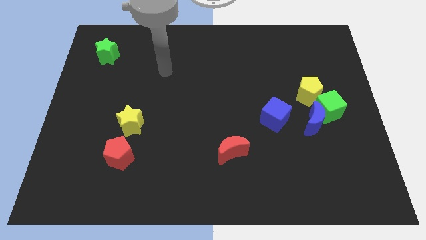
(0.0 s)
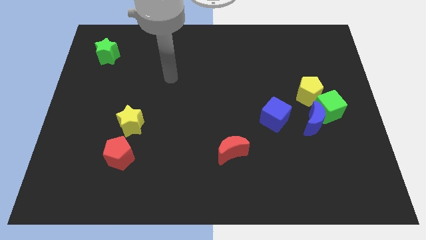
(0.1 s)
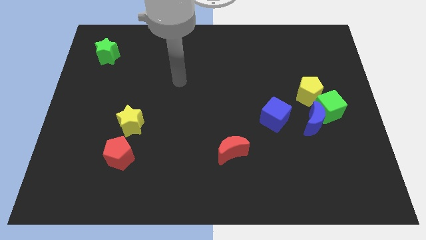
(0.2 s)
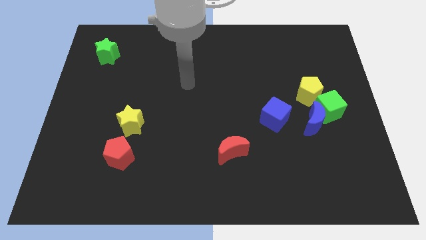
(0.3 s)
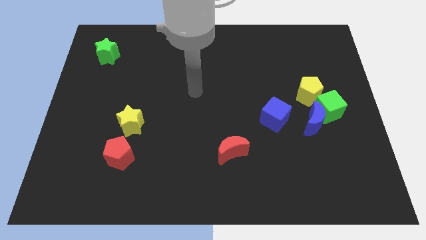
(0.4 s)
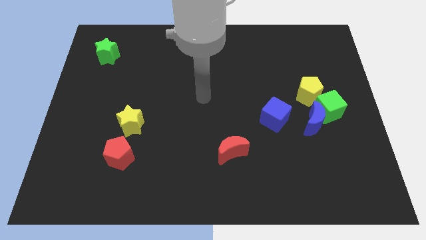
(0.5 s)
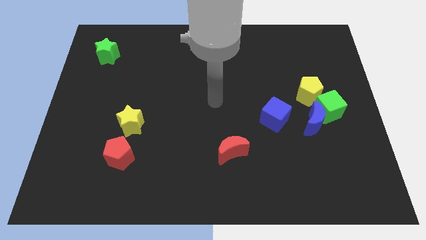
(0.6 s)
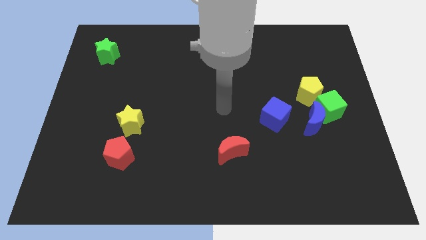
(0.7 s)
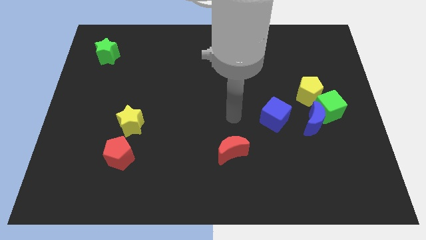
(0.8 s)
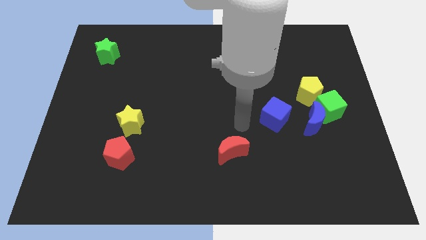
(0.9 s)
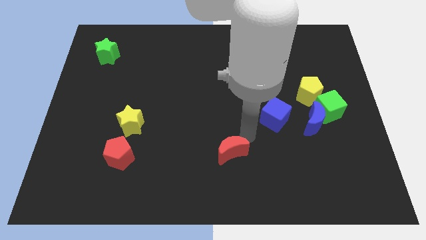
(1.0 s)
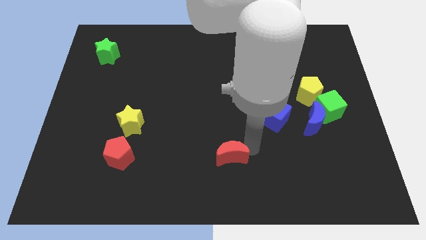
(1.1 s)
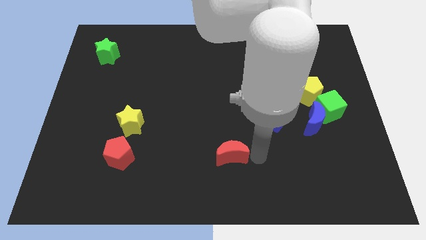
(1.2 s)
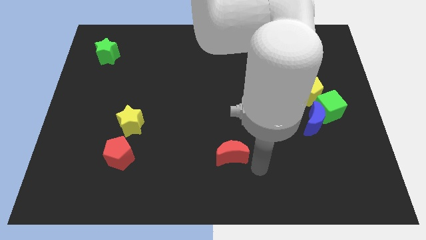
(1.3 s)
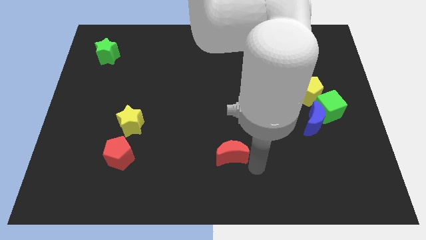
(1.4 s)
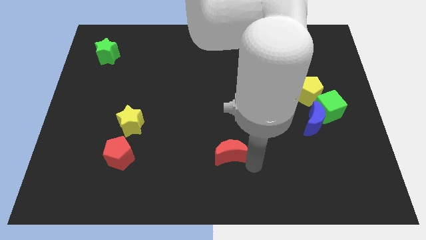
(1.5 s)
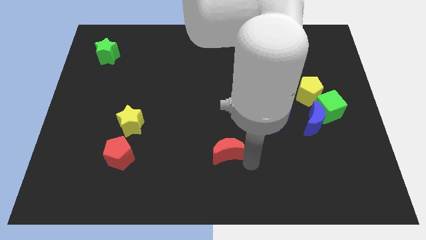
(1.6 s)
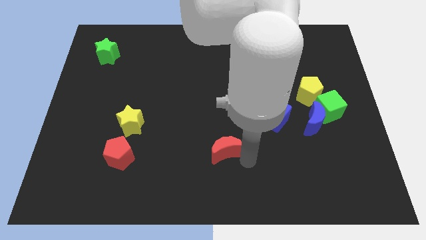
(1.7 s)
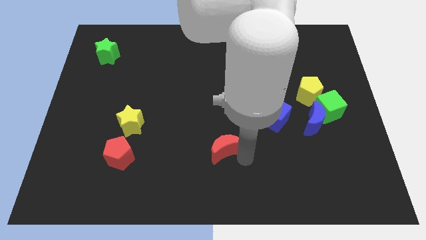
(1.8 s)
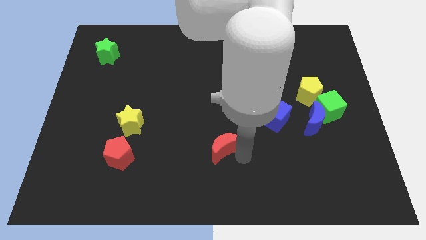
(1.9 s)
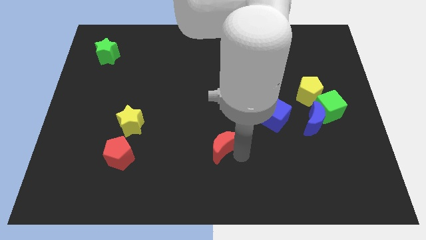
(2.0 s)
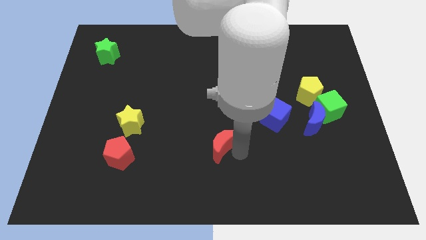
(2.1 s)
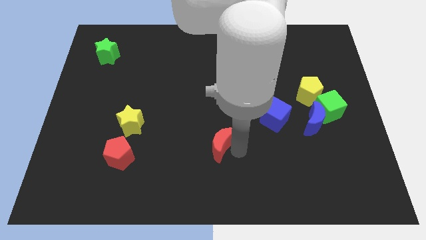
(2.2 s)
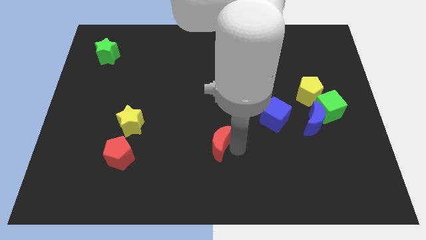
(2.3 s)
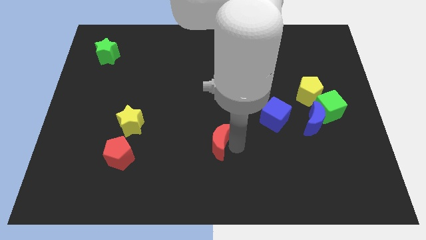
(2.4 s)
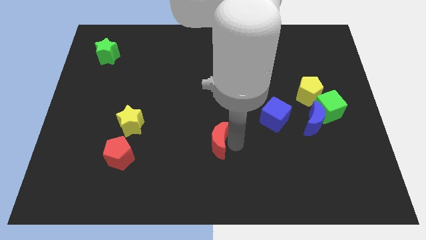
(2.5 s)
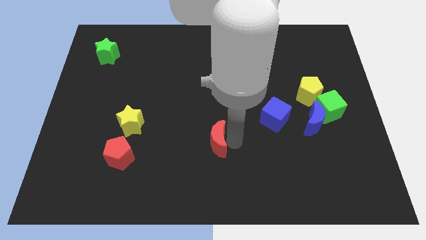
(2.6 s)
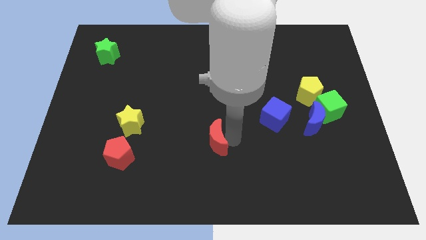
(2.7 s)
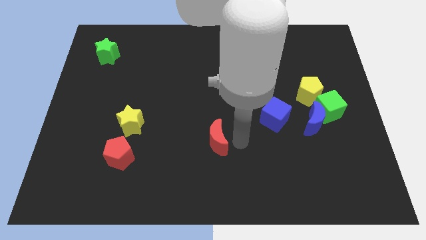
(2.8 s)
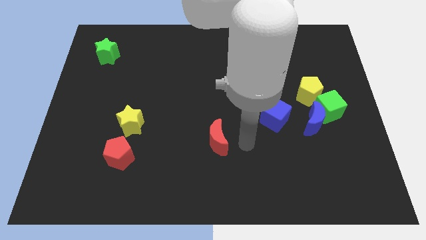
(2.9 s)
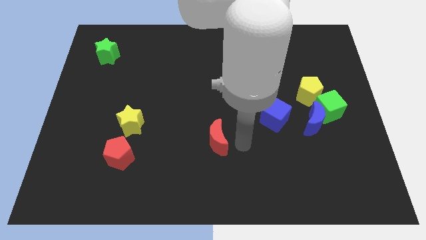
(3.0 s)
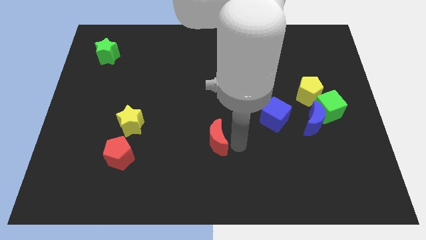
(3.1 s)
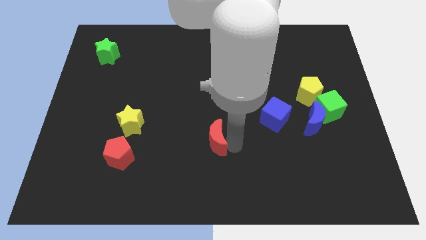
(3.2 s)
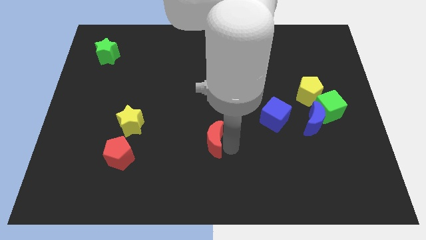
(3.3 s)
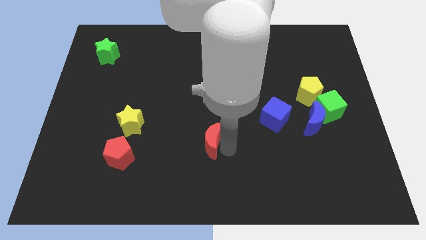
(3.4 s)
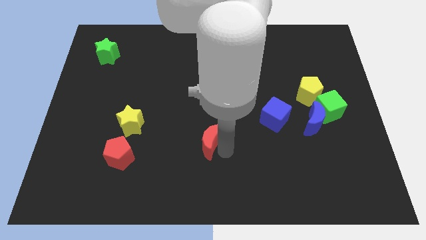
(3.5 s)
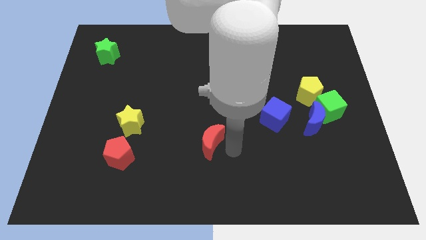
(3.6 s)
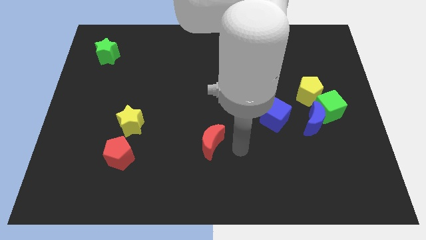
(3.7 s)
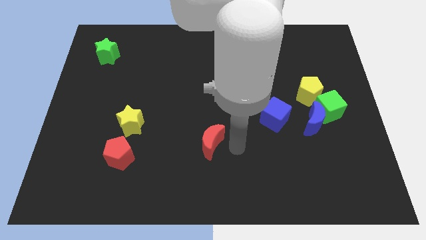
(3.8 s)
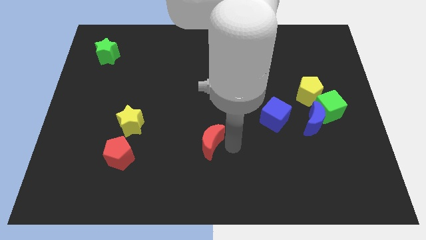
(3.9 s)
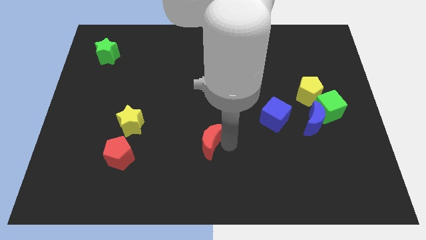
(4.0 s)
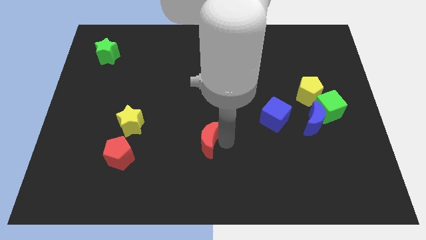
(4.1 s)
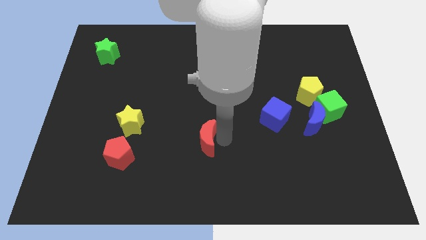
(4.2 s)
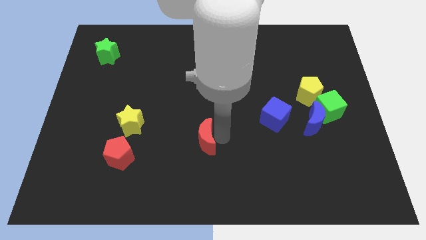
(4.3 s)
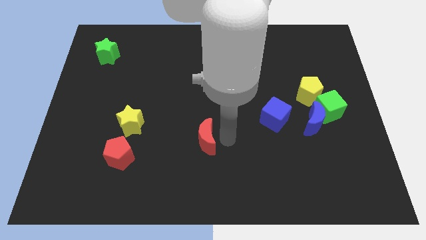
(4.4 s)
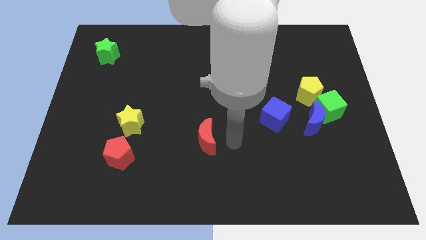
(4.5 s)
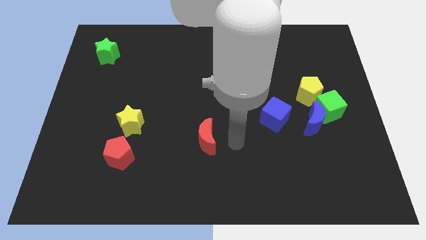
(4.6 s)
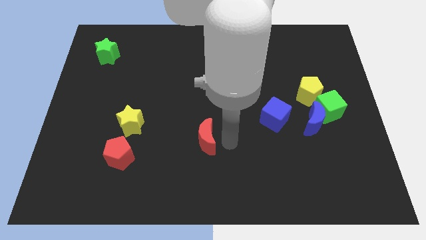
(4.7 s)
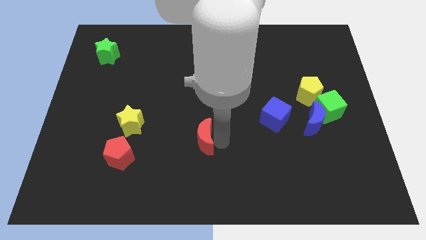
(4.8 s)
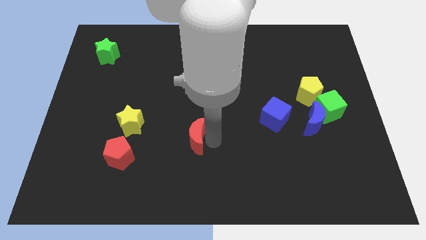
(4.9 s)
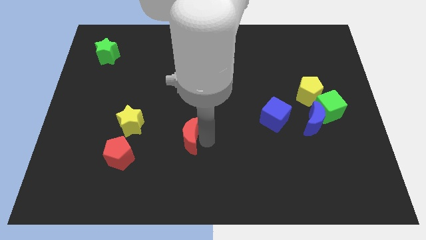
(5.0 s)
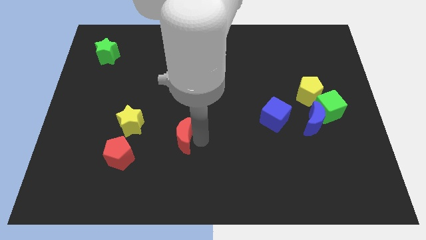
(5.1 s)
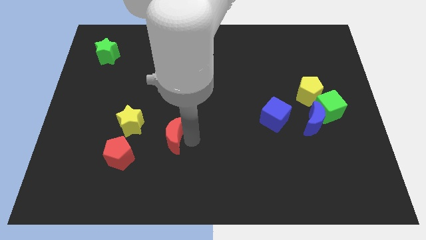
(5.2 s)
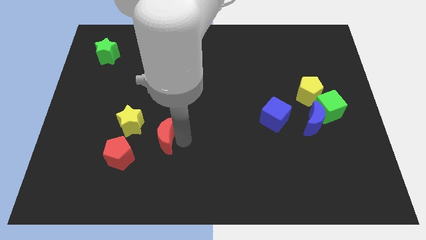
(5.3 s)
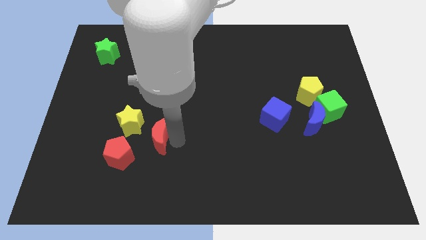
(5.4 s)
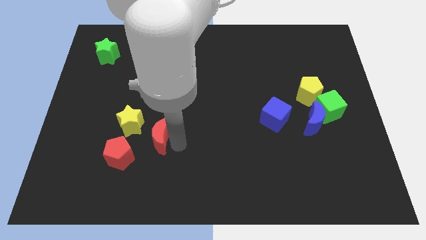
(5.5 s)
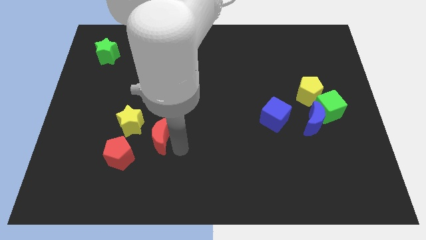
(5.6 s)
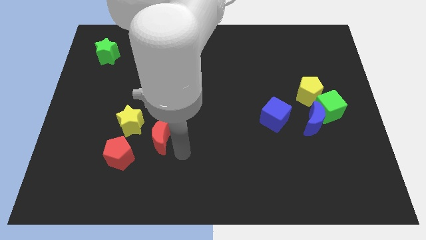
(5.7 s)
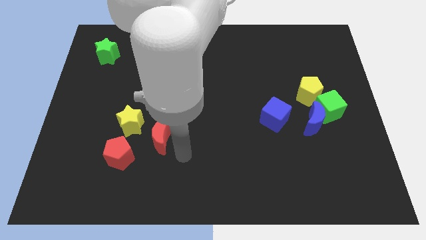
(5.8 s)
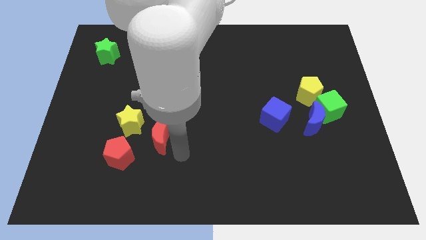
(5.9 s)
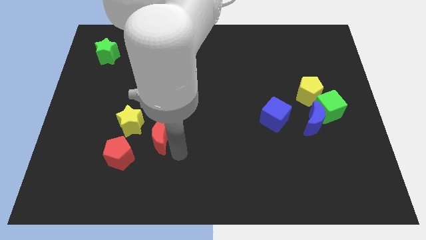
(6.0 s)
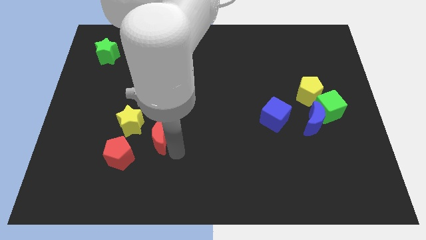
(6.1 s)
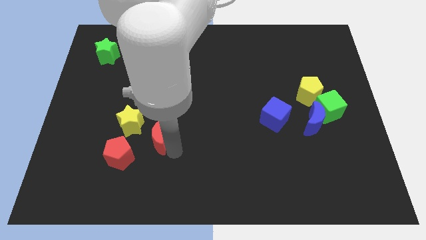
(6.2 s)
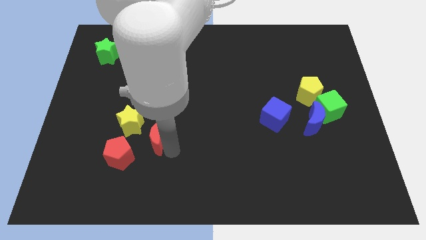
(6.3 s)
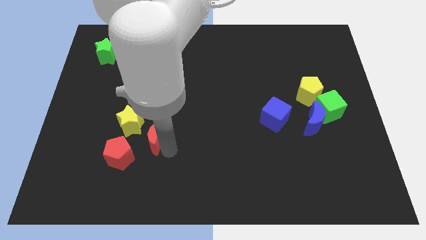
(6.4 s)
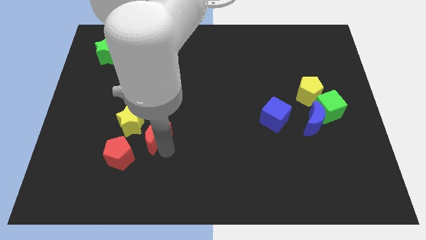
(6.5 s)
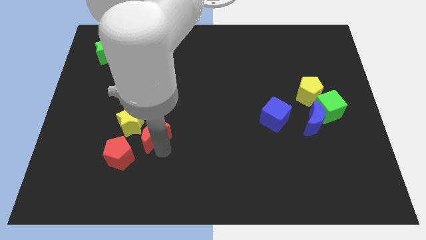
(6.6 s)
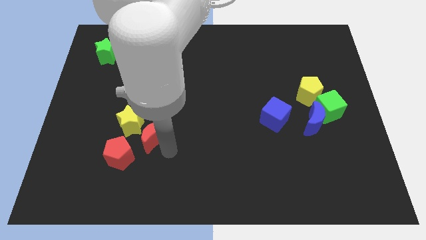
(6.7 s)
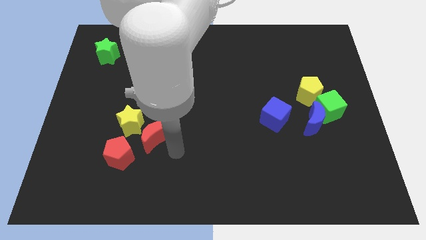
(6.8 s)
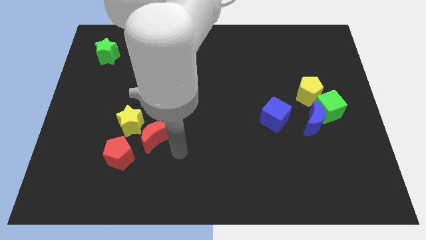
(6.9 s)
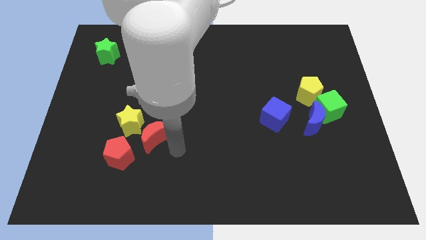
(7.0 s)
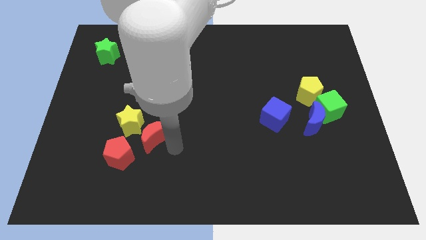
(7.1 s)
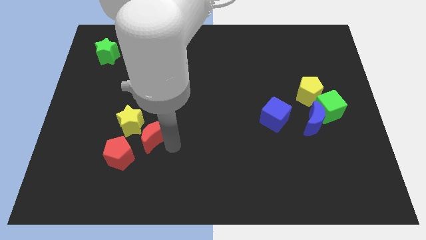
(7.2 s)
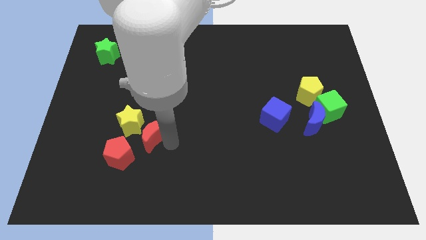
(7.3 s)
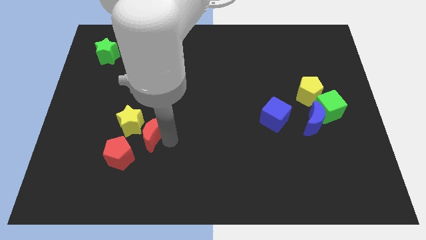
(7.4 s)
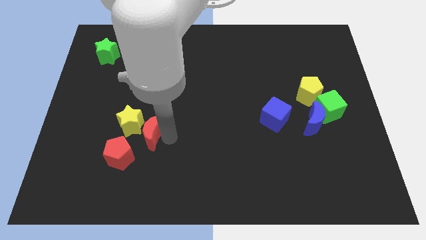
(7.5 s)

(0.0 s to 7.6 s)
slide the red moon towards the yellow star
